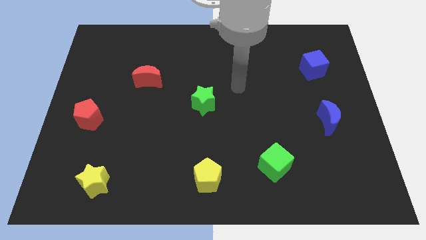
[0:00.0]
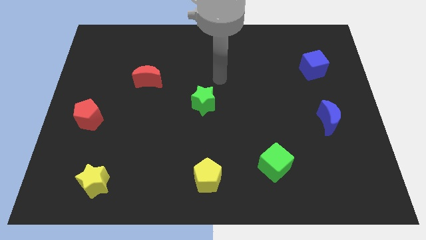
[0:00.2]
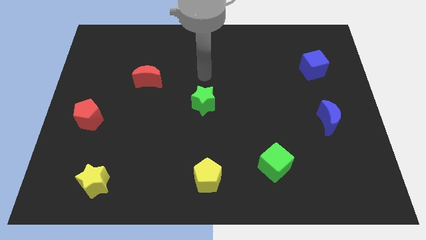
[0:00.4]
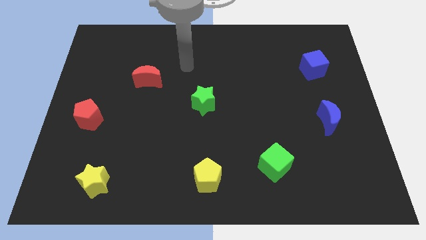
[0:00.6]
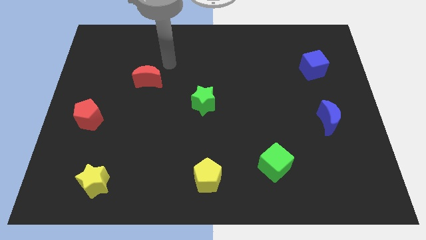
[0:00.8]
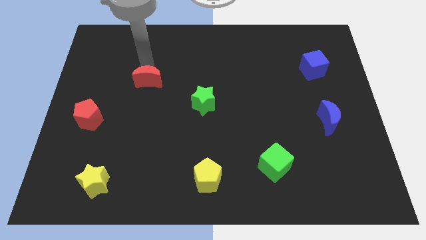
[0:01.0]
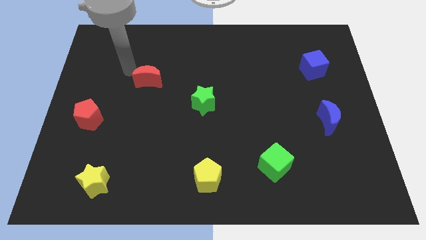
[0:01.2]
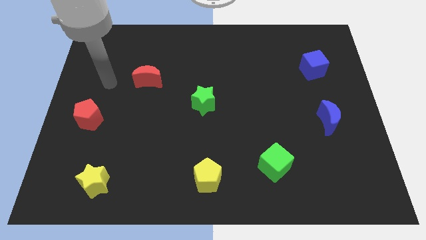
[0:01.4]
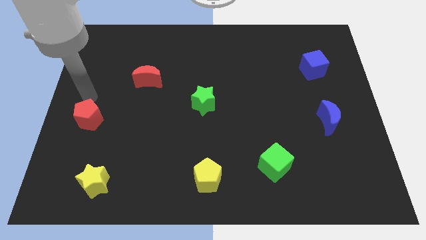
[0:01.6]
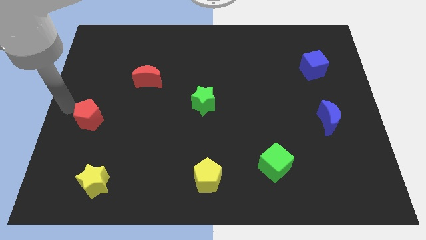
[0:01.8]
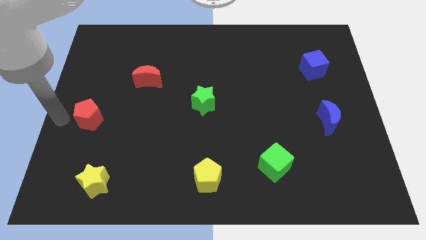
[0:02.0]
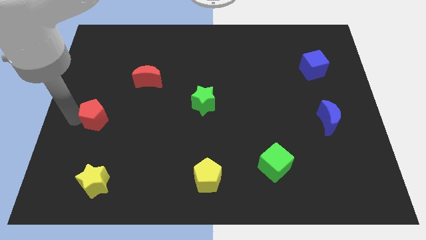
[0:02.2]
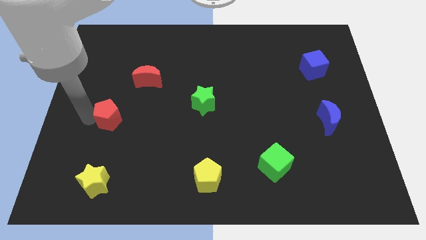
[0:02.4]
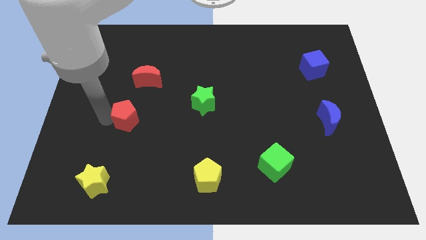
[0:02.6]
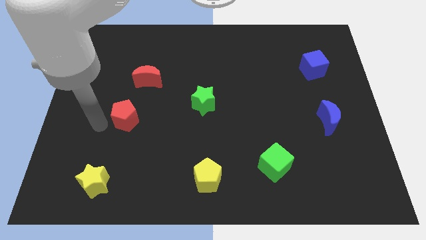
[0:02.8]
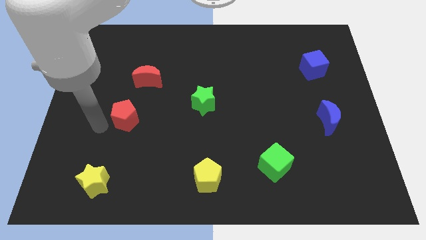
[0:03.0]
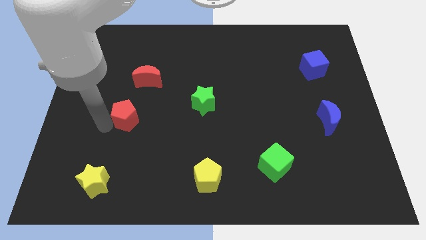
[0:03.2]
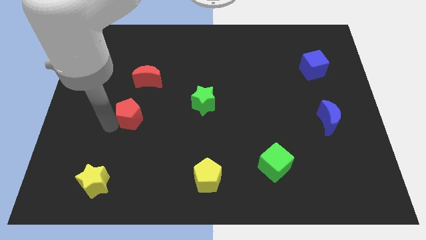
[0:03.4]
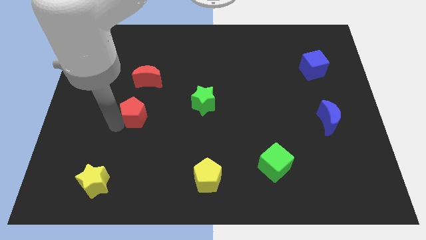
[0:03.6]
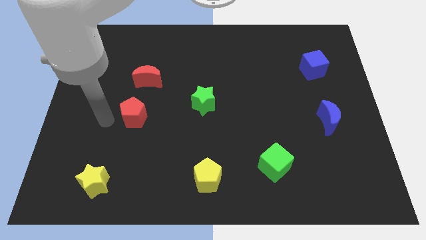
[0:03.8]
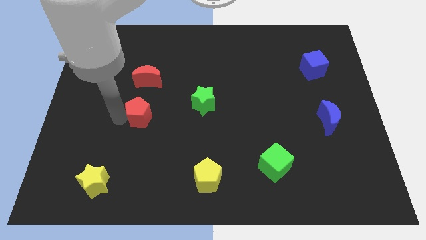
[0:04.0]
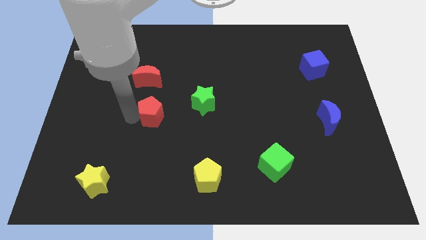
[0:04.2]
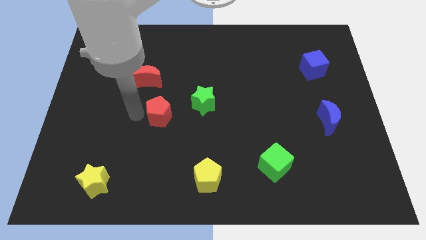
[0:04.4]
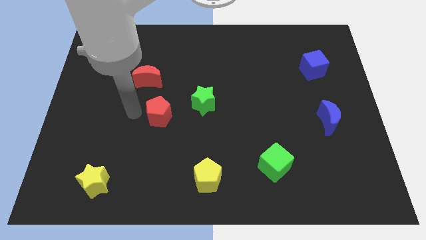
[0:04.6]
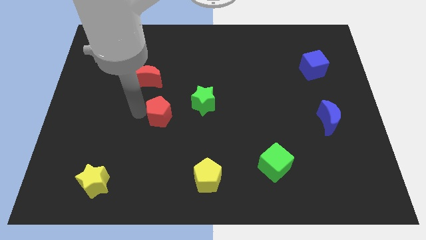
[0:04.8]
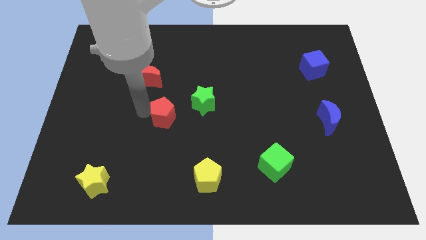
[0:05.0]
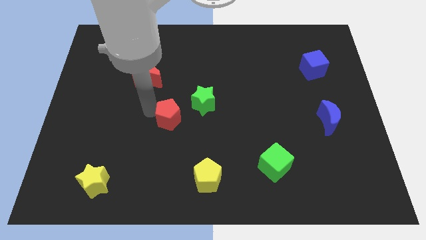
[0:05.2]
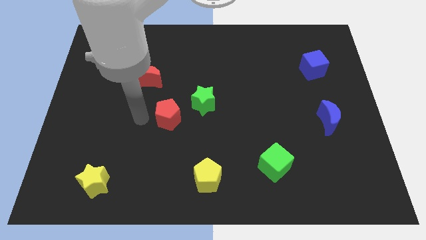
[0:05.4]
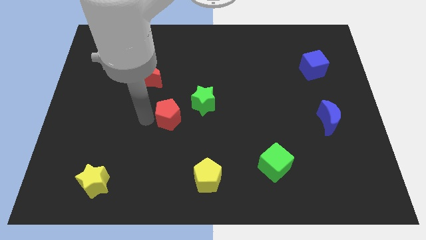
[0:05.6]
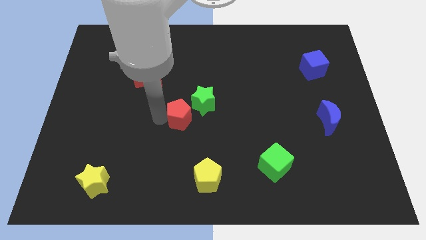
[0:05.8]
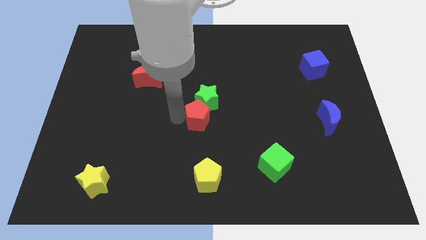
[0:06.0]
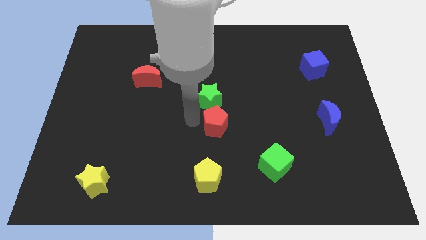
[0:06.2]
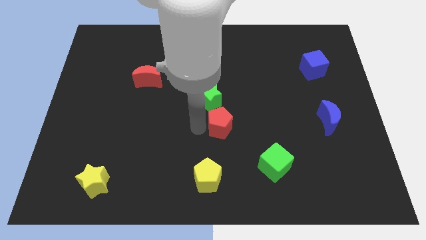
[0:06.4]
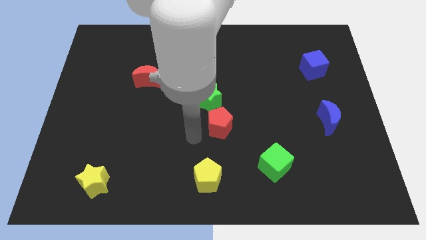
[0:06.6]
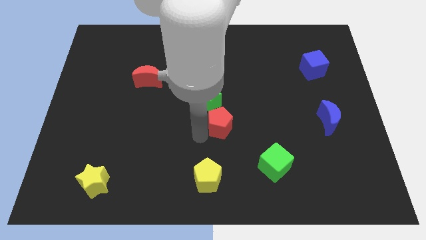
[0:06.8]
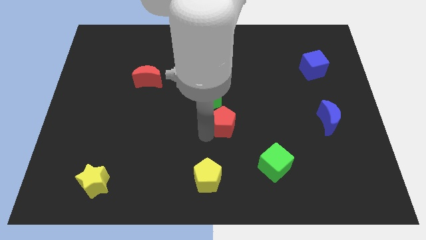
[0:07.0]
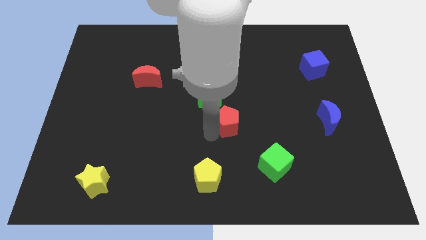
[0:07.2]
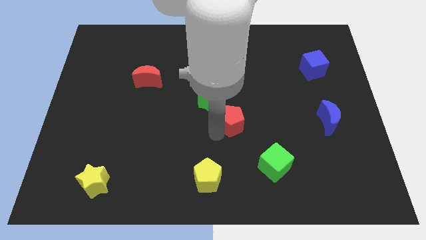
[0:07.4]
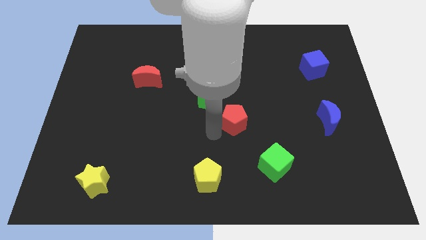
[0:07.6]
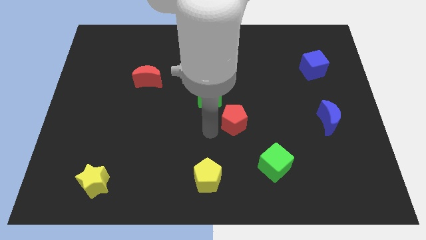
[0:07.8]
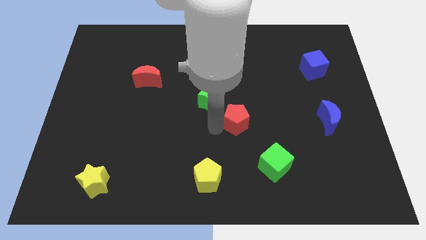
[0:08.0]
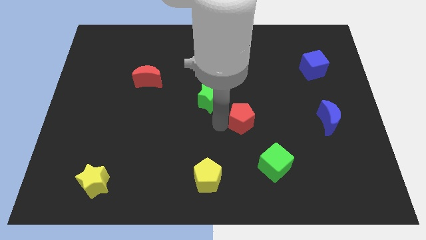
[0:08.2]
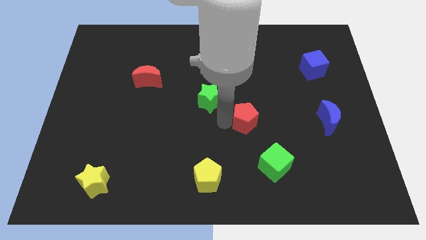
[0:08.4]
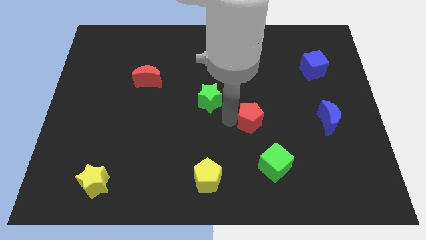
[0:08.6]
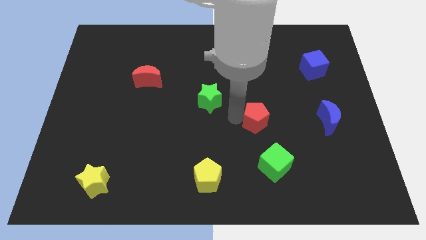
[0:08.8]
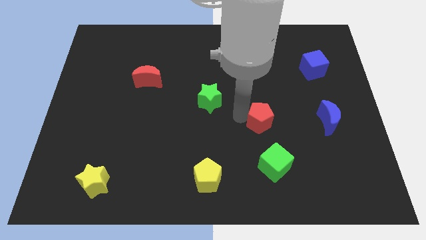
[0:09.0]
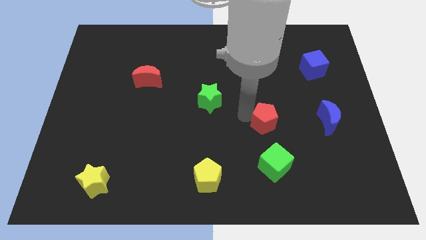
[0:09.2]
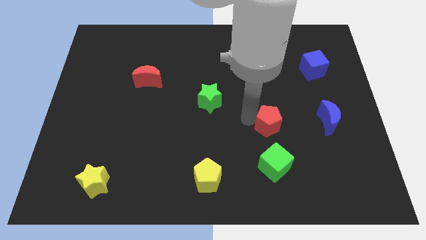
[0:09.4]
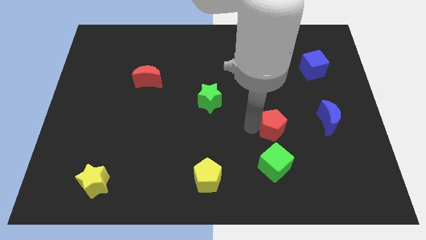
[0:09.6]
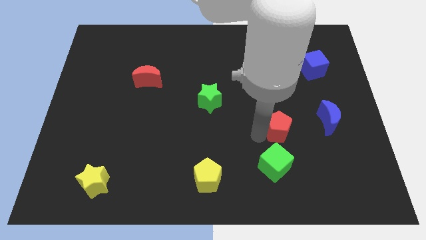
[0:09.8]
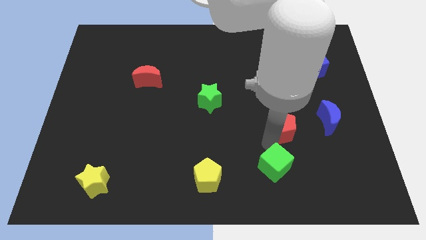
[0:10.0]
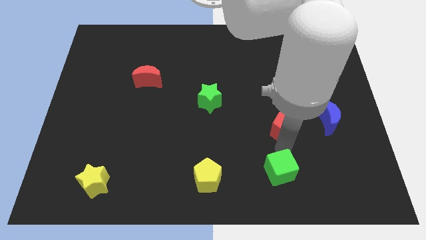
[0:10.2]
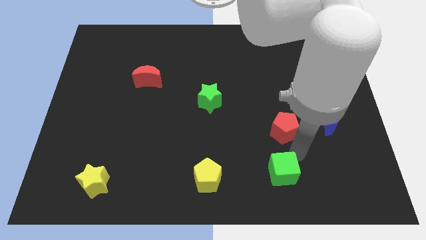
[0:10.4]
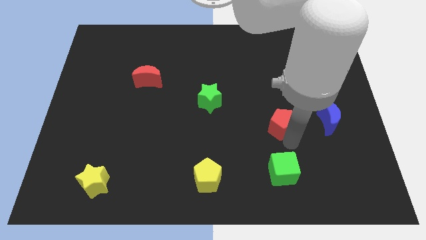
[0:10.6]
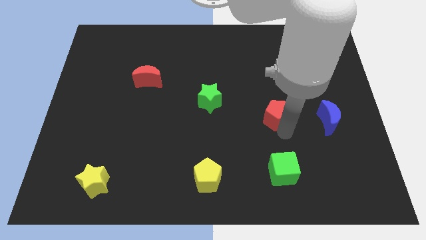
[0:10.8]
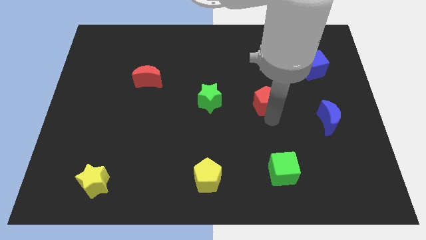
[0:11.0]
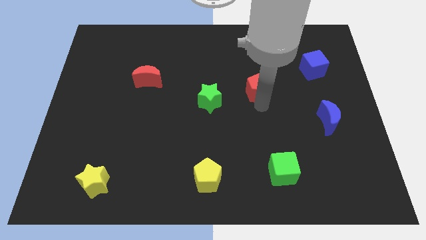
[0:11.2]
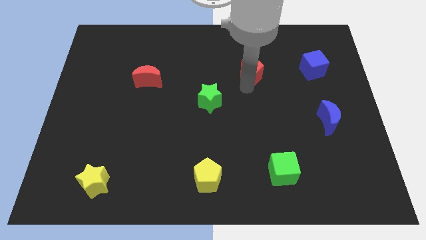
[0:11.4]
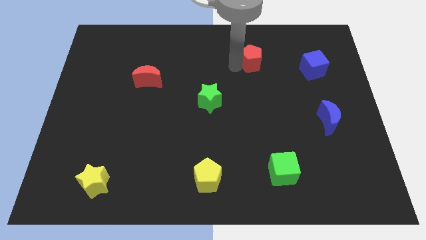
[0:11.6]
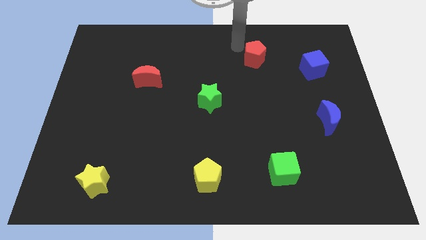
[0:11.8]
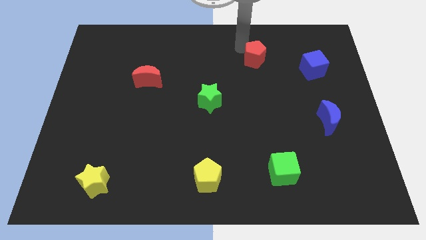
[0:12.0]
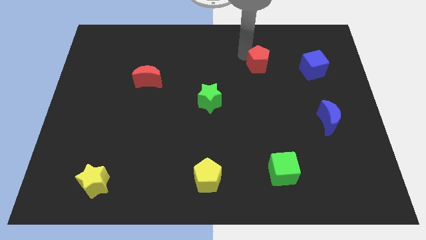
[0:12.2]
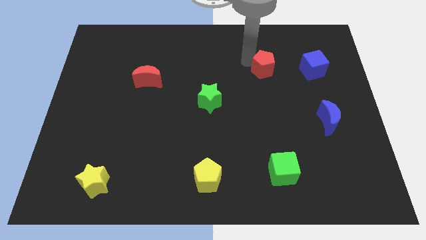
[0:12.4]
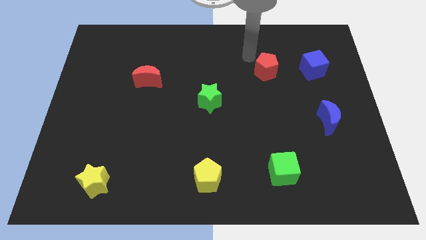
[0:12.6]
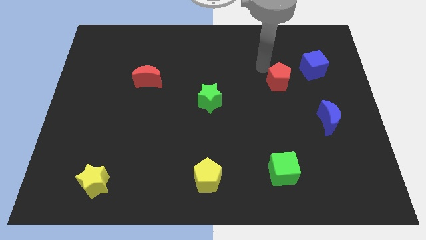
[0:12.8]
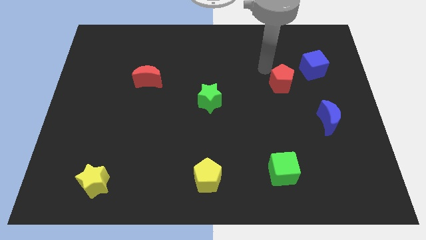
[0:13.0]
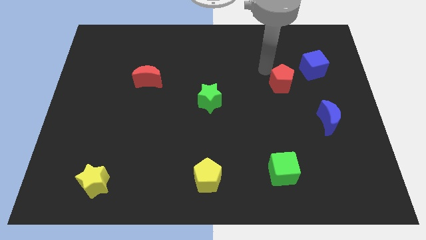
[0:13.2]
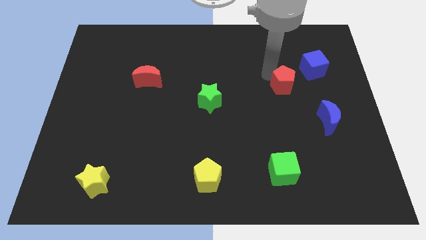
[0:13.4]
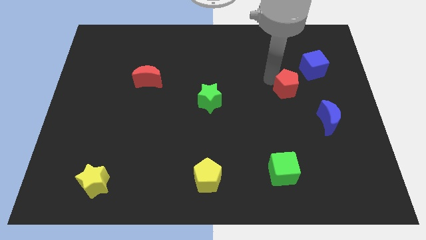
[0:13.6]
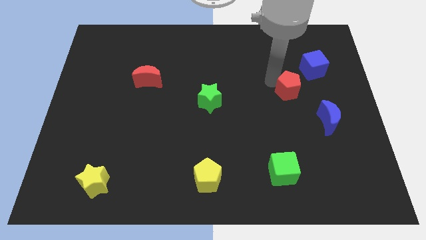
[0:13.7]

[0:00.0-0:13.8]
slide the red pentagon to the top left of the blue moon

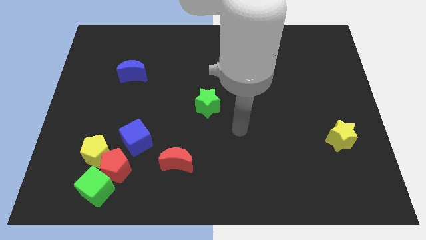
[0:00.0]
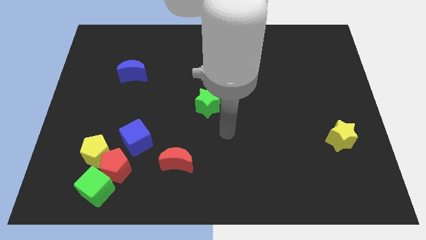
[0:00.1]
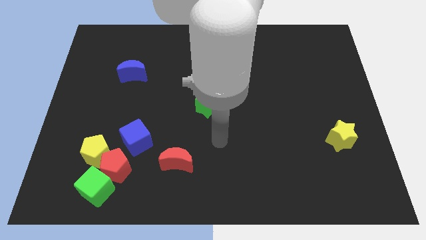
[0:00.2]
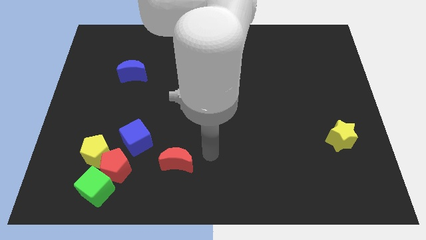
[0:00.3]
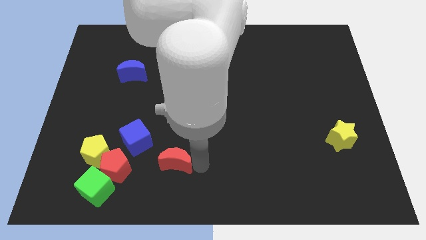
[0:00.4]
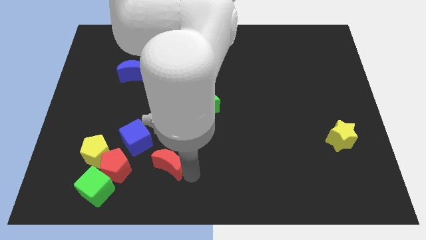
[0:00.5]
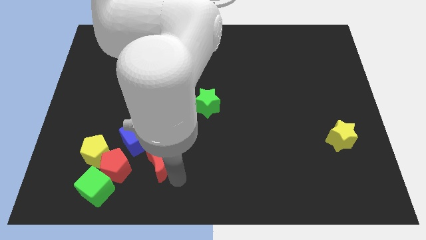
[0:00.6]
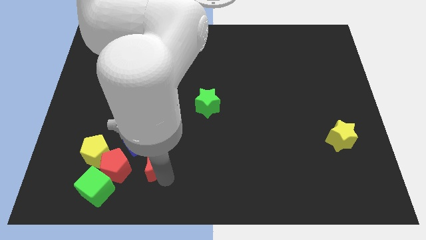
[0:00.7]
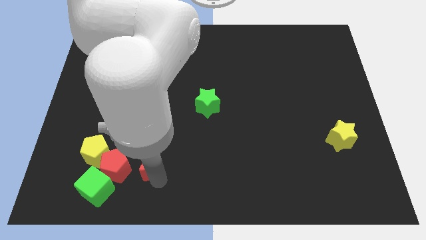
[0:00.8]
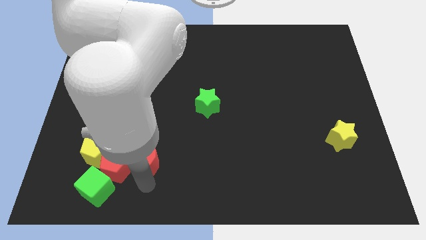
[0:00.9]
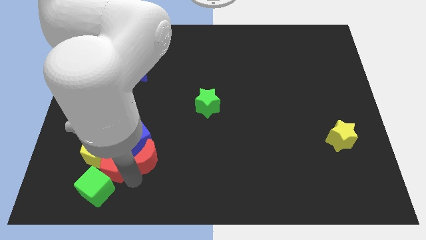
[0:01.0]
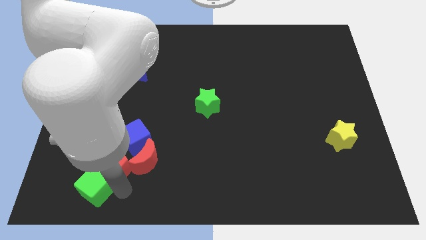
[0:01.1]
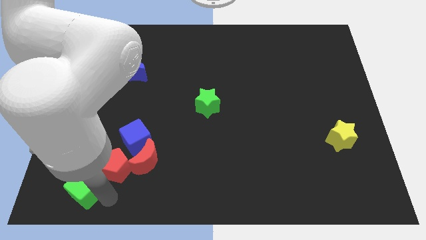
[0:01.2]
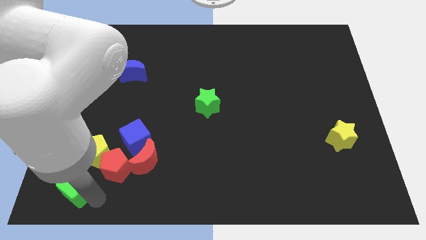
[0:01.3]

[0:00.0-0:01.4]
slide the yellow pentagon to the top right of the green cube
